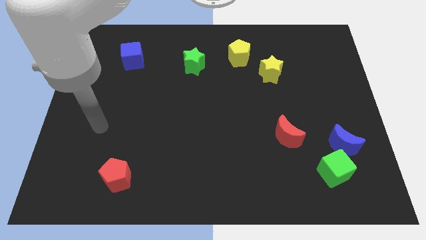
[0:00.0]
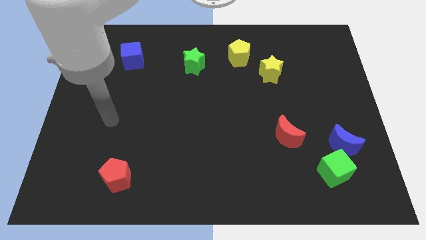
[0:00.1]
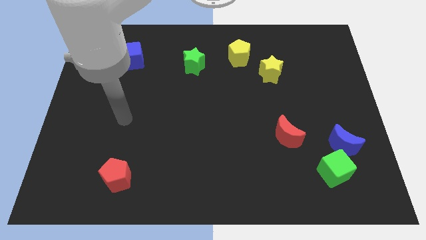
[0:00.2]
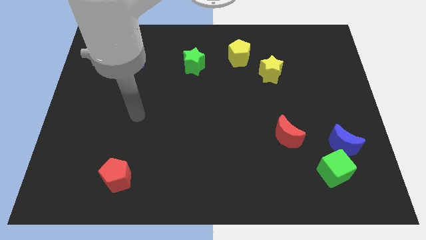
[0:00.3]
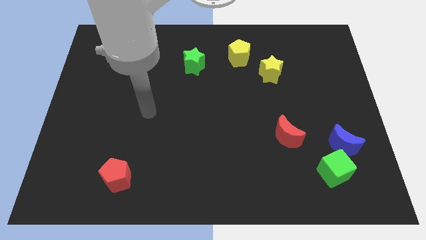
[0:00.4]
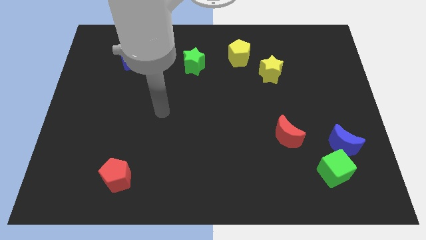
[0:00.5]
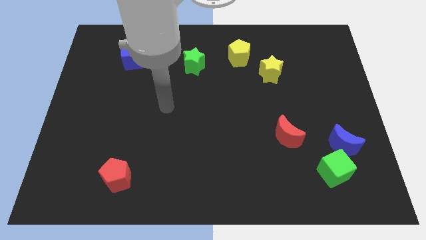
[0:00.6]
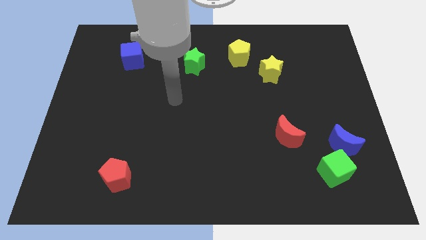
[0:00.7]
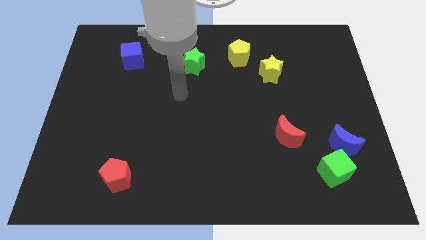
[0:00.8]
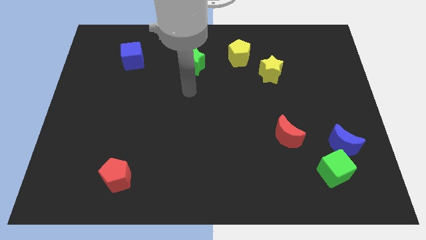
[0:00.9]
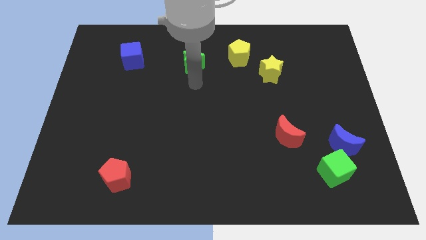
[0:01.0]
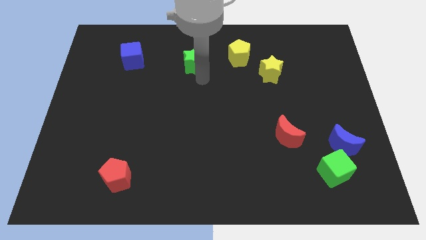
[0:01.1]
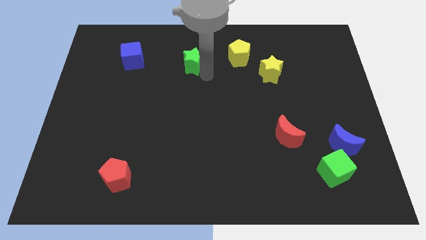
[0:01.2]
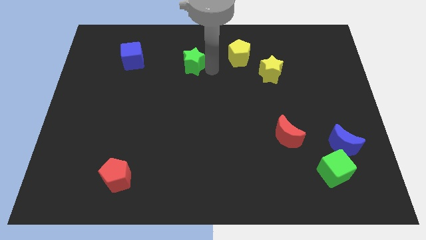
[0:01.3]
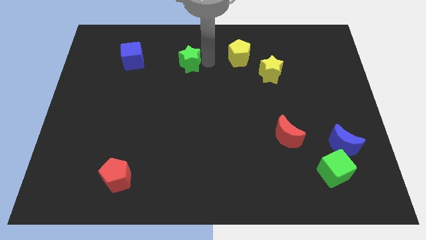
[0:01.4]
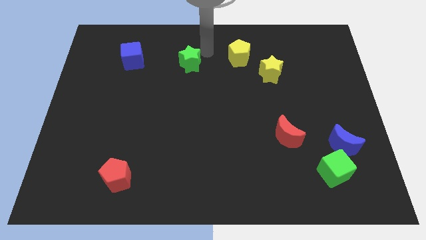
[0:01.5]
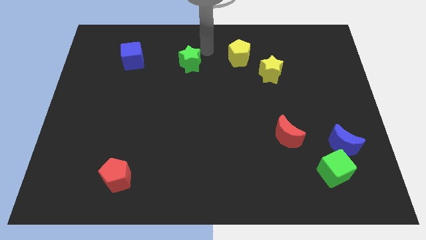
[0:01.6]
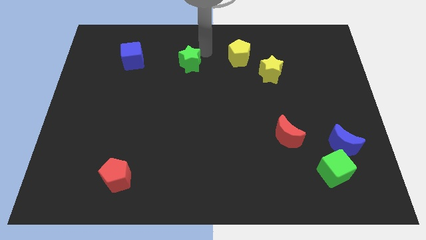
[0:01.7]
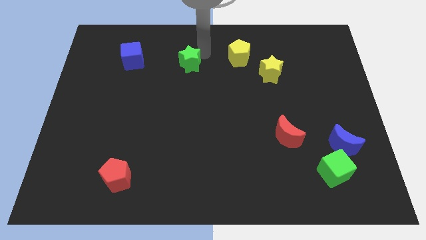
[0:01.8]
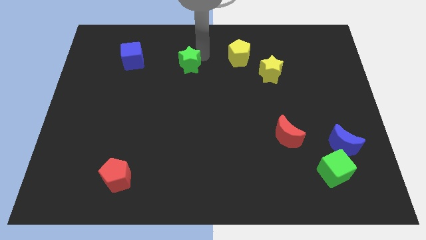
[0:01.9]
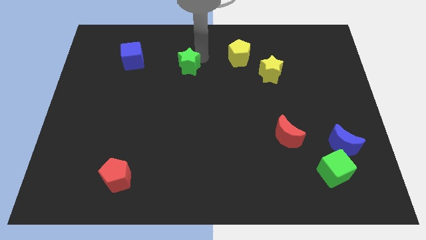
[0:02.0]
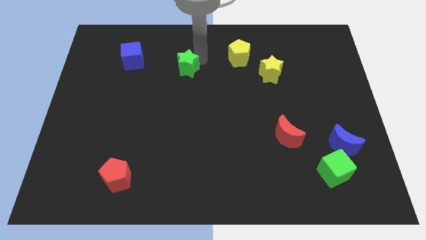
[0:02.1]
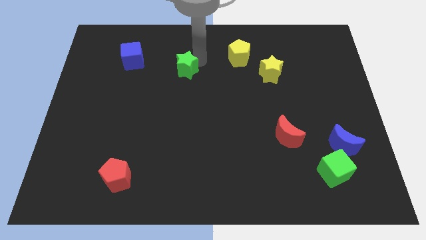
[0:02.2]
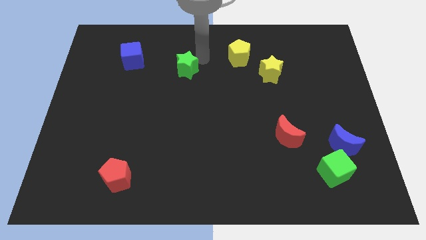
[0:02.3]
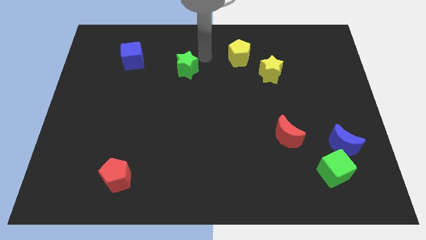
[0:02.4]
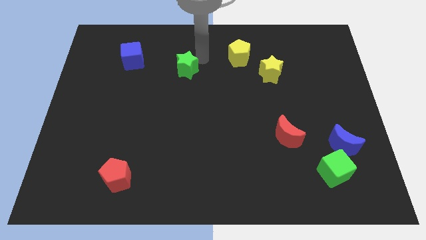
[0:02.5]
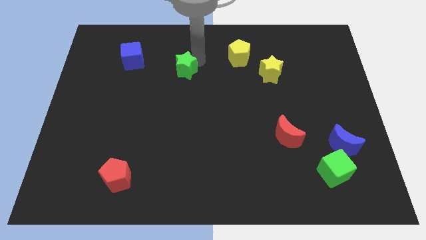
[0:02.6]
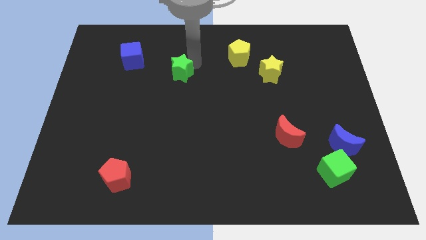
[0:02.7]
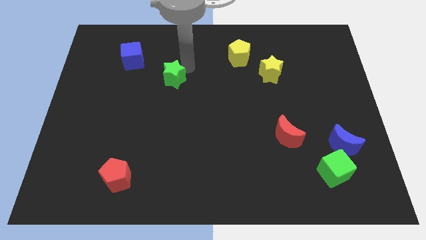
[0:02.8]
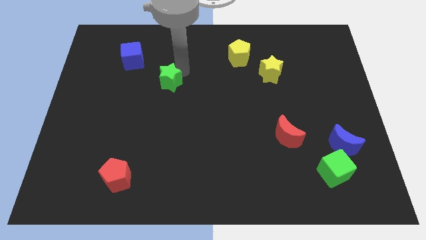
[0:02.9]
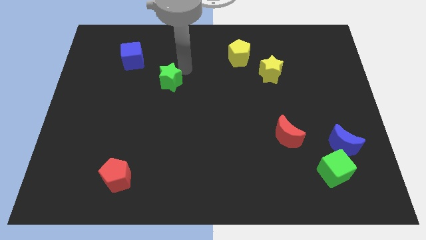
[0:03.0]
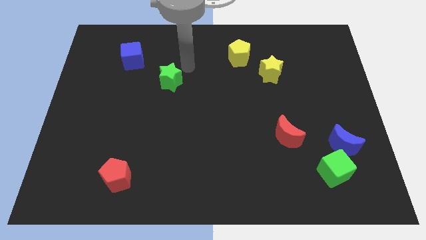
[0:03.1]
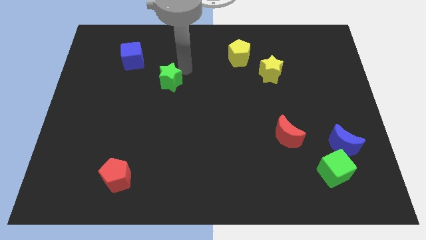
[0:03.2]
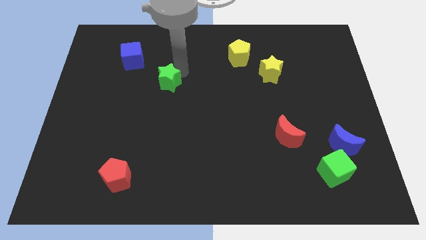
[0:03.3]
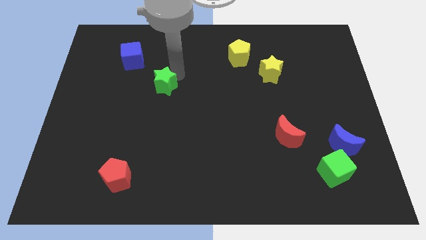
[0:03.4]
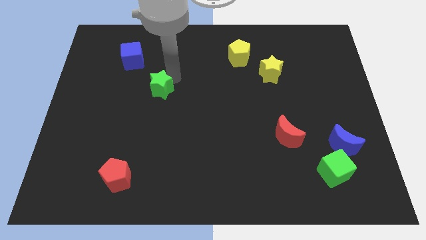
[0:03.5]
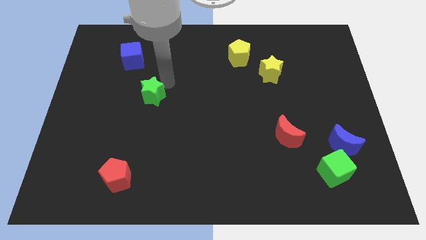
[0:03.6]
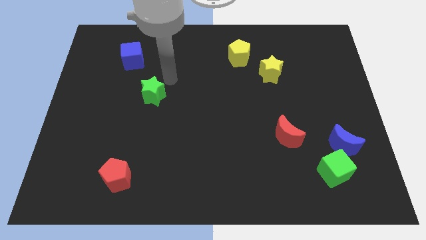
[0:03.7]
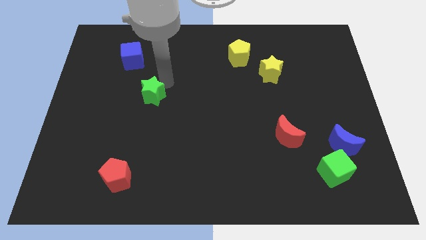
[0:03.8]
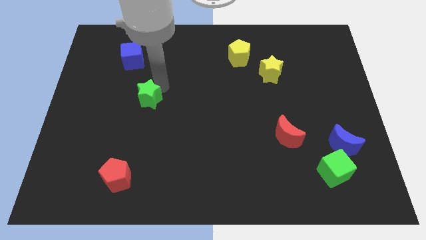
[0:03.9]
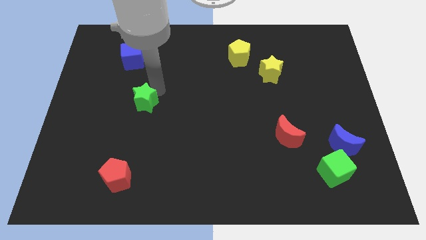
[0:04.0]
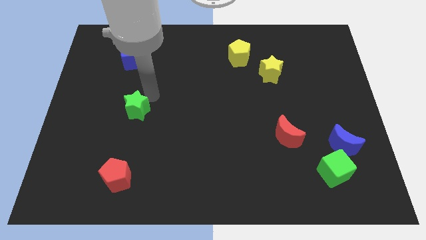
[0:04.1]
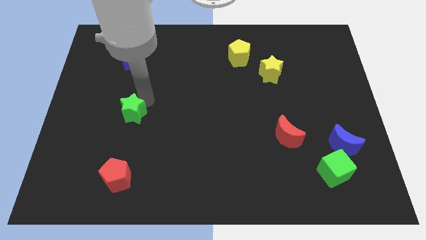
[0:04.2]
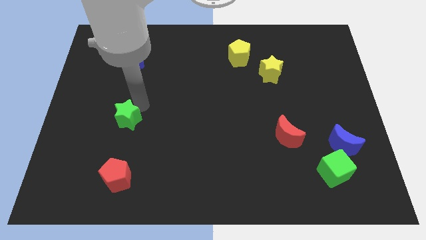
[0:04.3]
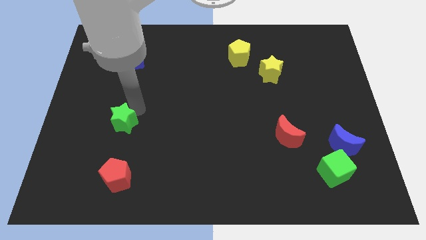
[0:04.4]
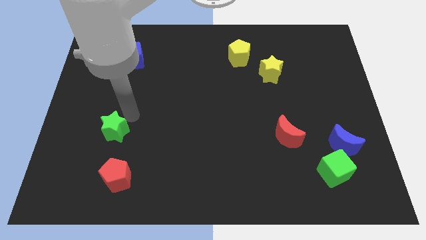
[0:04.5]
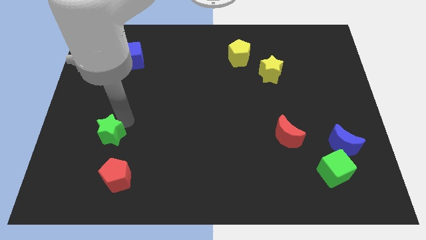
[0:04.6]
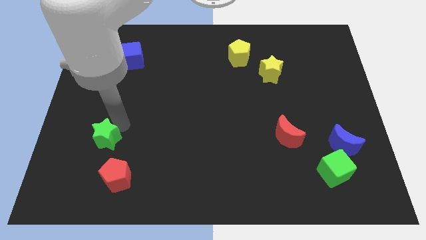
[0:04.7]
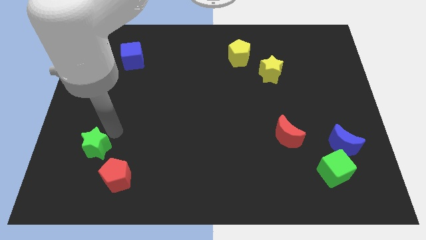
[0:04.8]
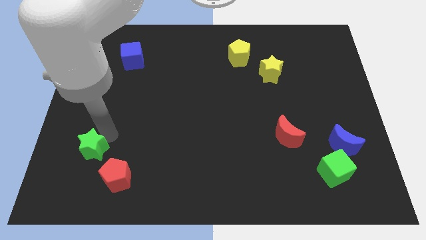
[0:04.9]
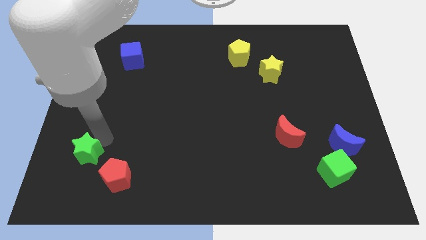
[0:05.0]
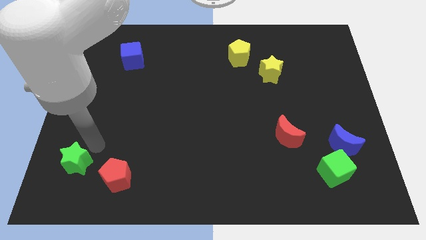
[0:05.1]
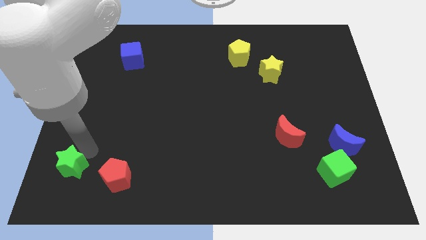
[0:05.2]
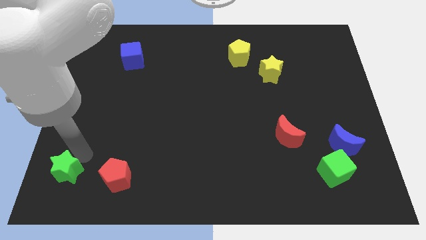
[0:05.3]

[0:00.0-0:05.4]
move the green star to the bottom left of the board

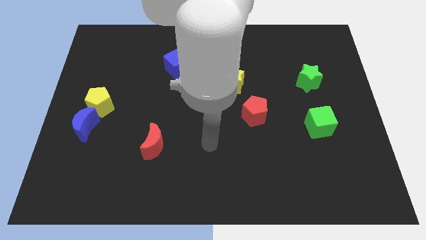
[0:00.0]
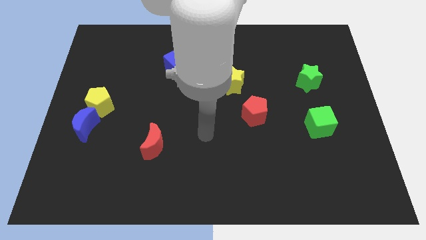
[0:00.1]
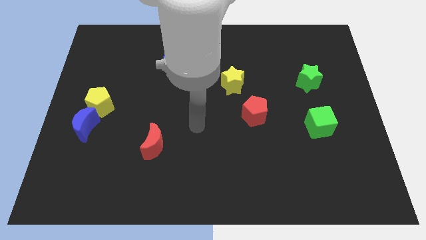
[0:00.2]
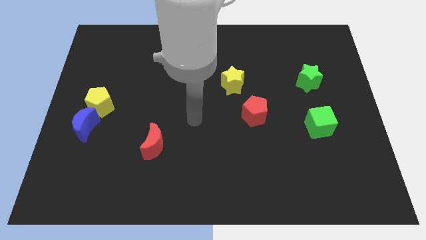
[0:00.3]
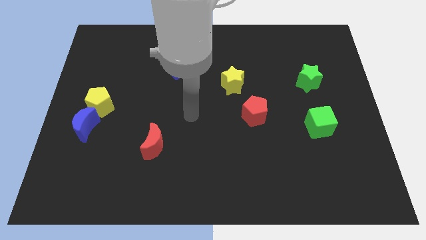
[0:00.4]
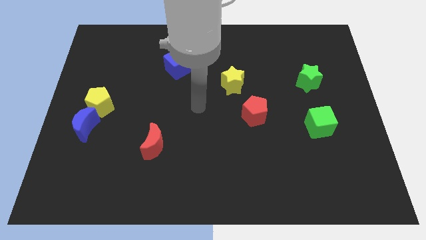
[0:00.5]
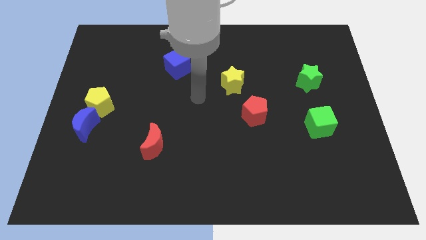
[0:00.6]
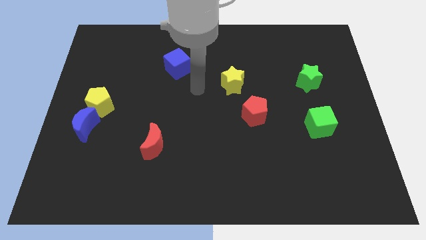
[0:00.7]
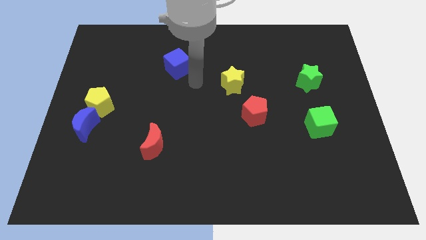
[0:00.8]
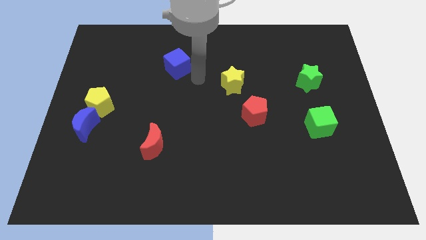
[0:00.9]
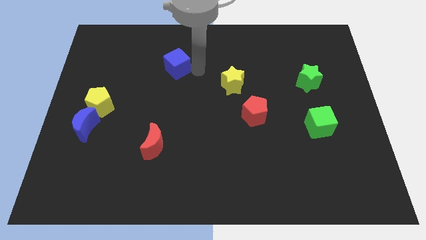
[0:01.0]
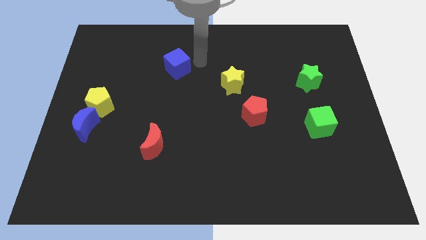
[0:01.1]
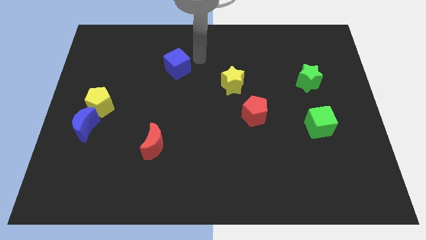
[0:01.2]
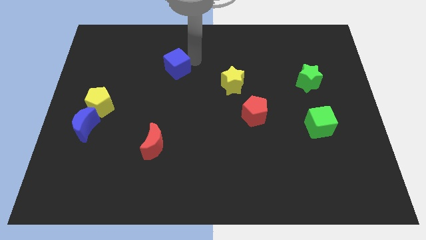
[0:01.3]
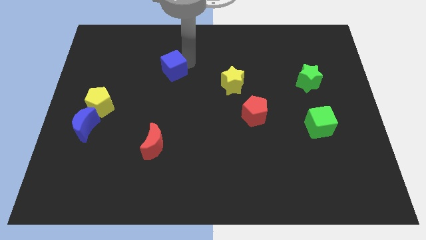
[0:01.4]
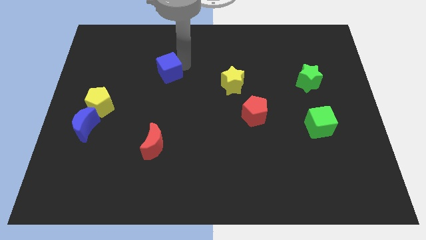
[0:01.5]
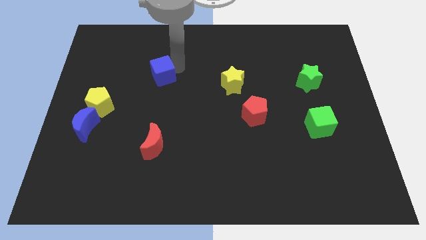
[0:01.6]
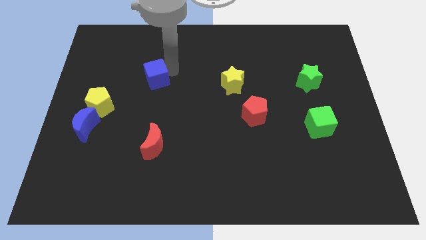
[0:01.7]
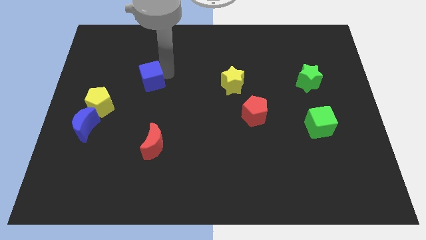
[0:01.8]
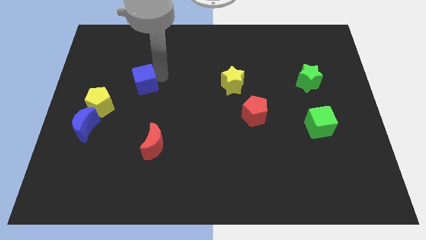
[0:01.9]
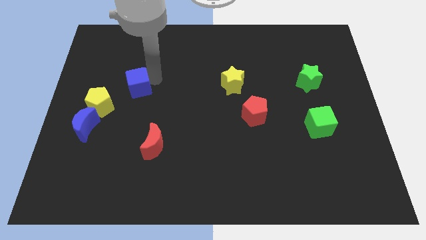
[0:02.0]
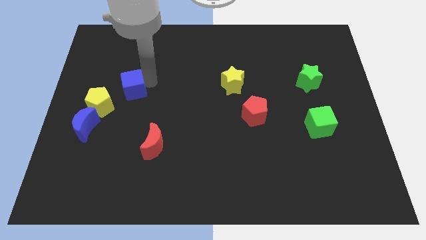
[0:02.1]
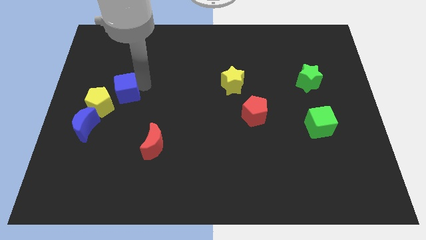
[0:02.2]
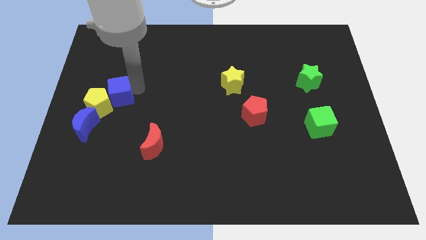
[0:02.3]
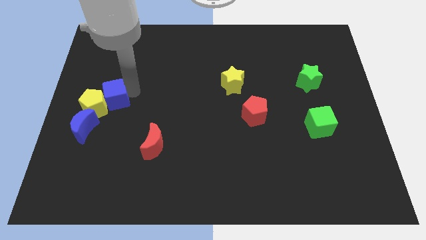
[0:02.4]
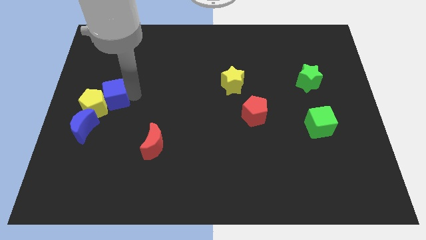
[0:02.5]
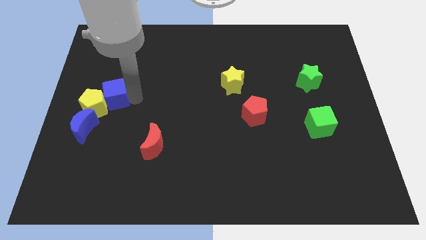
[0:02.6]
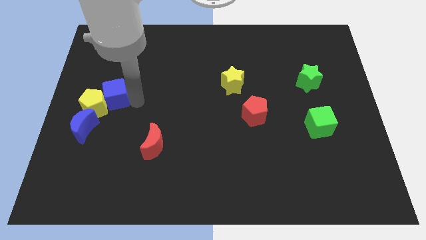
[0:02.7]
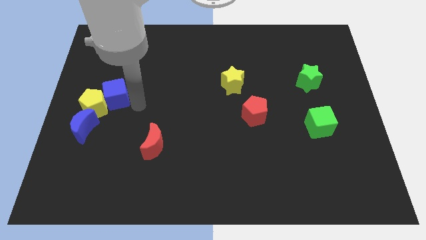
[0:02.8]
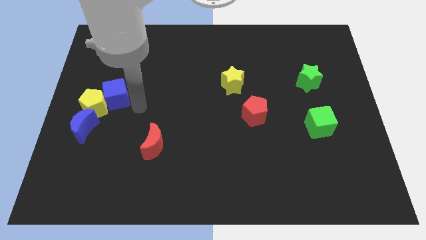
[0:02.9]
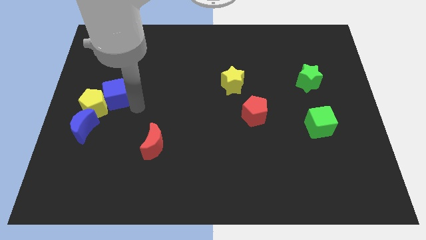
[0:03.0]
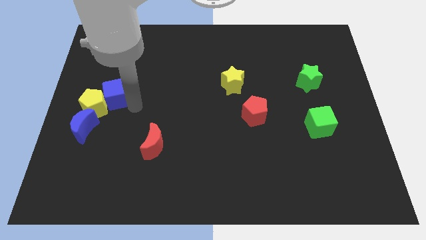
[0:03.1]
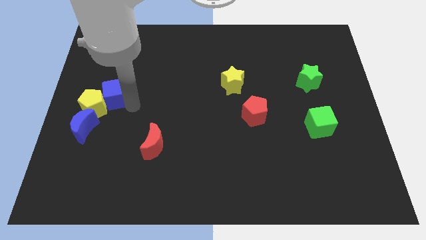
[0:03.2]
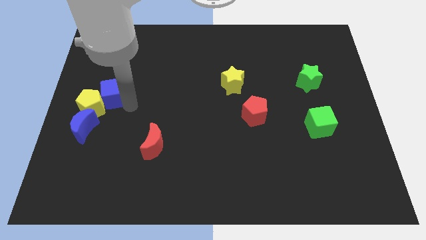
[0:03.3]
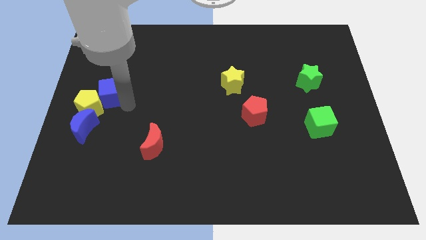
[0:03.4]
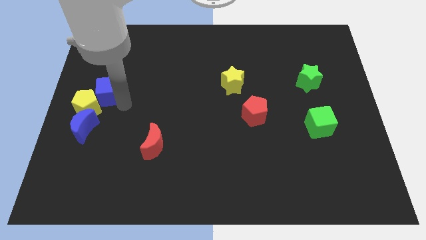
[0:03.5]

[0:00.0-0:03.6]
push the blue cube to the center left
